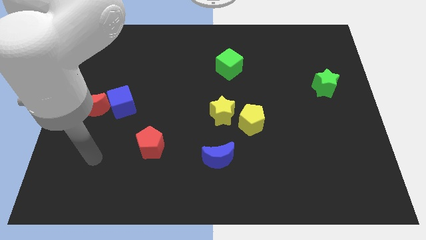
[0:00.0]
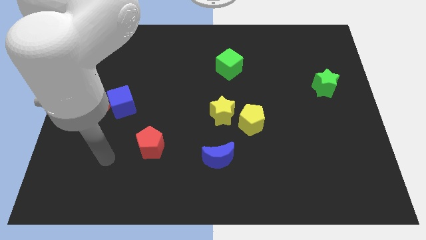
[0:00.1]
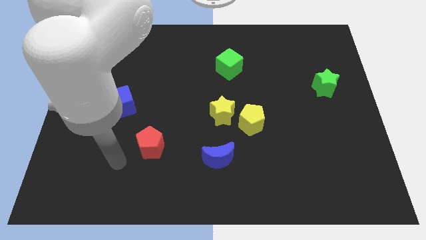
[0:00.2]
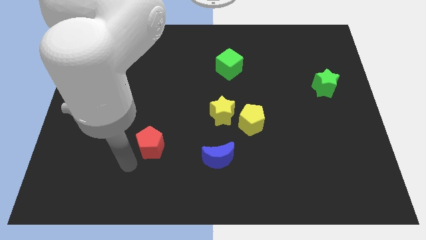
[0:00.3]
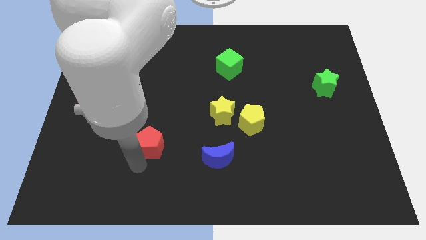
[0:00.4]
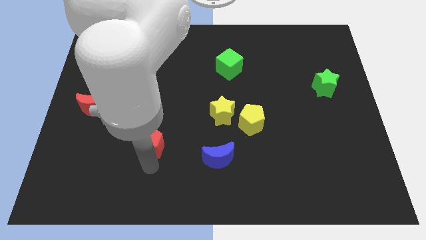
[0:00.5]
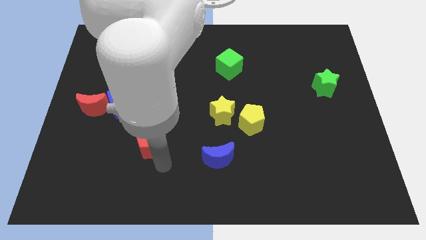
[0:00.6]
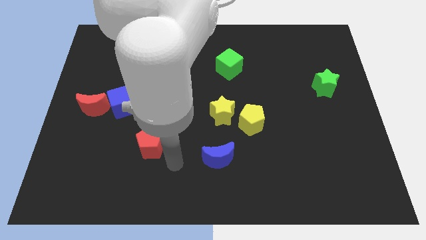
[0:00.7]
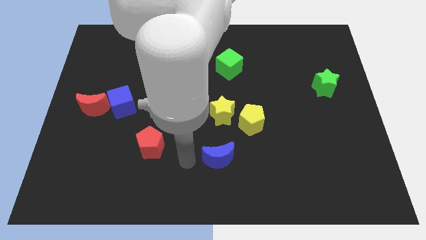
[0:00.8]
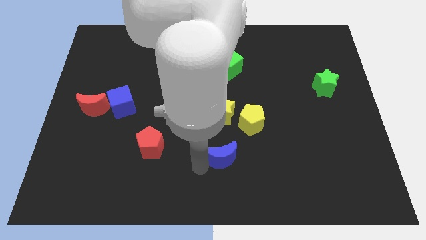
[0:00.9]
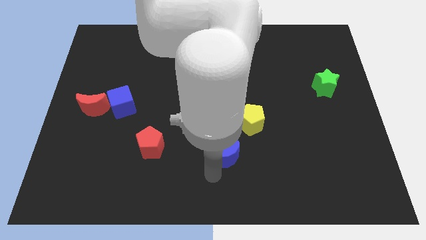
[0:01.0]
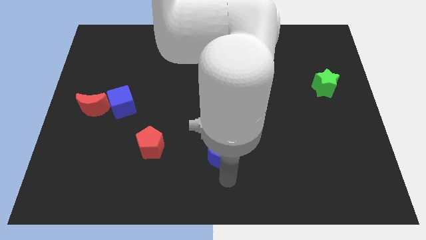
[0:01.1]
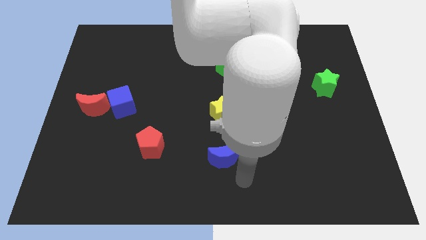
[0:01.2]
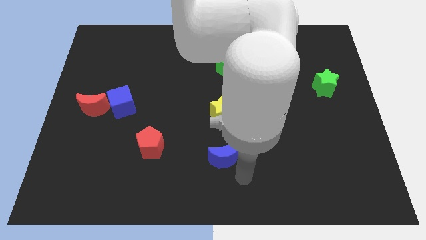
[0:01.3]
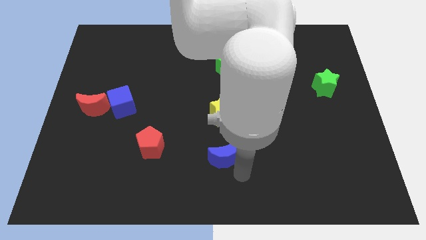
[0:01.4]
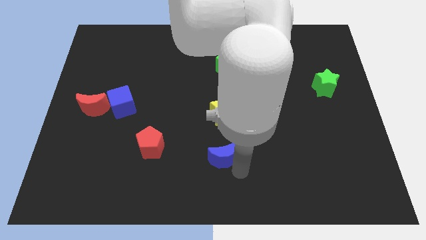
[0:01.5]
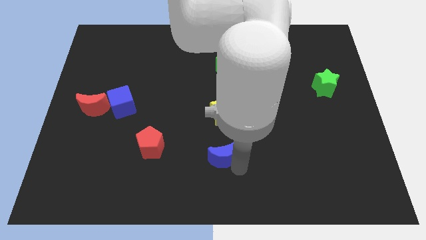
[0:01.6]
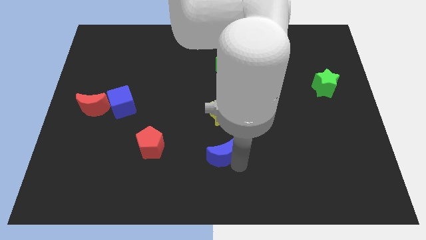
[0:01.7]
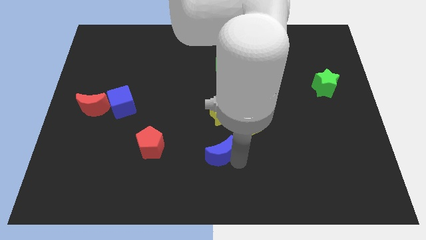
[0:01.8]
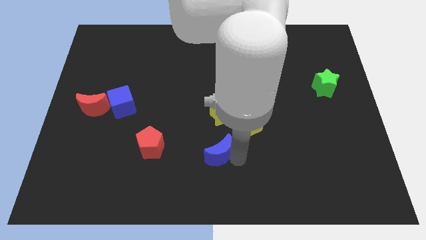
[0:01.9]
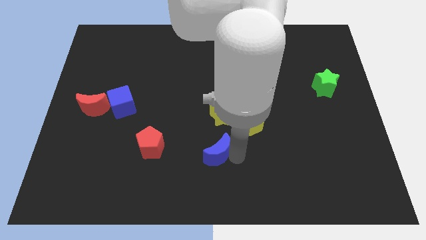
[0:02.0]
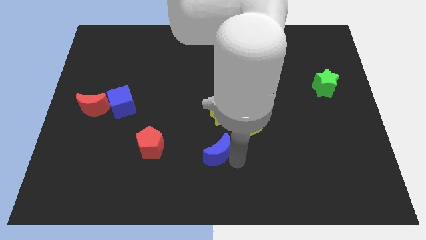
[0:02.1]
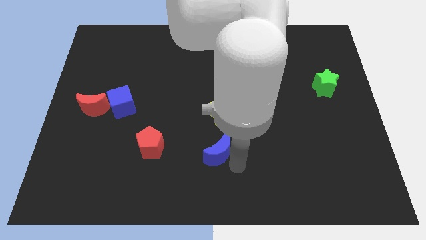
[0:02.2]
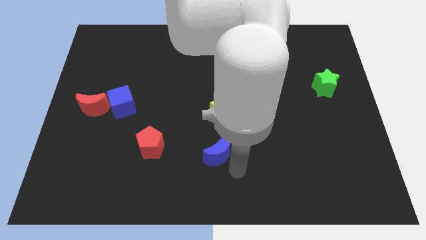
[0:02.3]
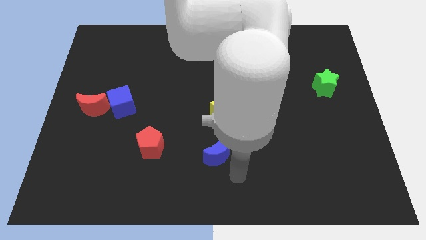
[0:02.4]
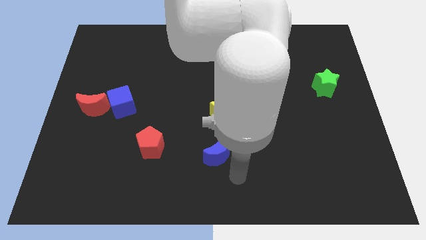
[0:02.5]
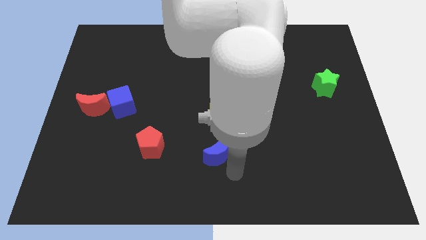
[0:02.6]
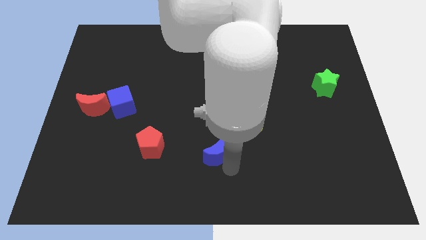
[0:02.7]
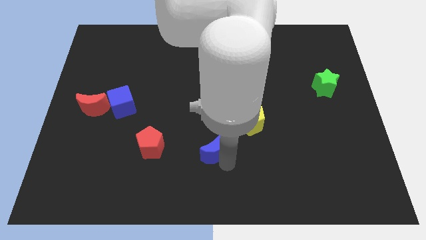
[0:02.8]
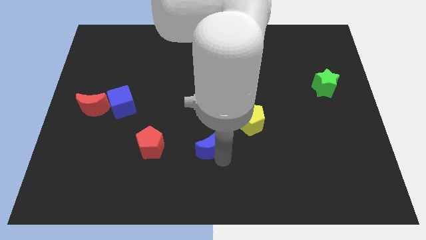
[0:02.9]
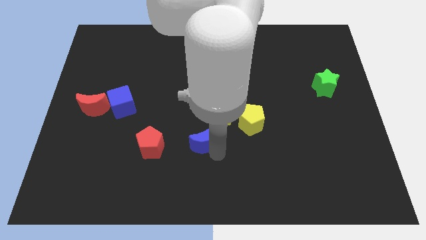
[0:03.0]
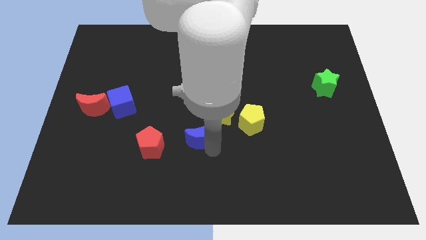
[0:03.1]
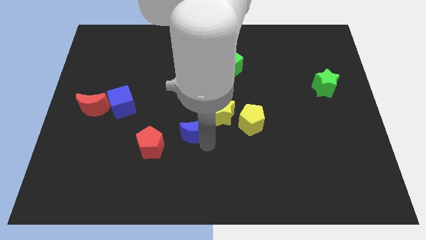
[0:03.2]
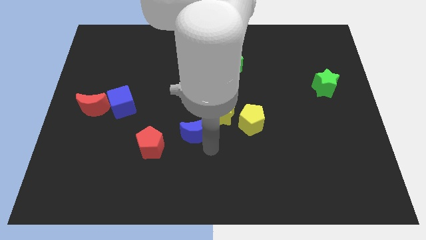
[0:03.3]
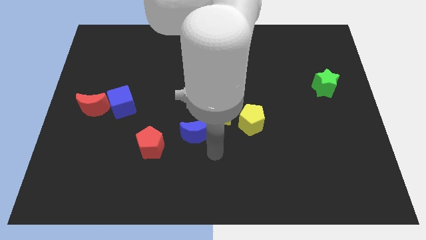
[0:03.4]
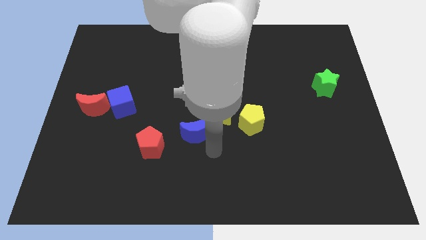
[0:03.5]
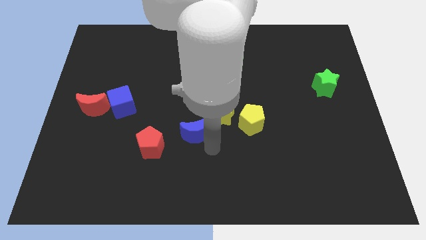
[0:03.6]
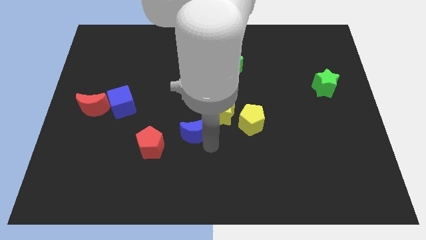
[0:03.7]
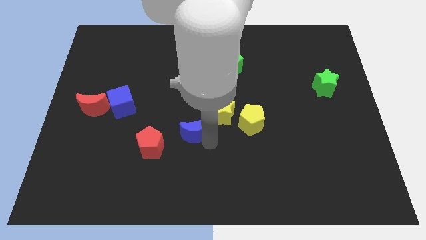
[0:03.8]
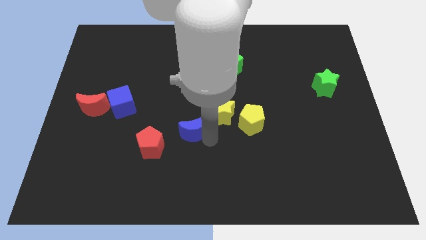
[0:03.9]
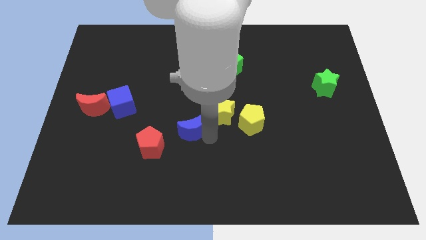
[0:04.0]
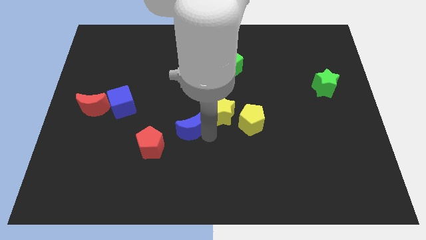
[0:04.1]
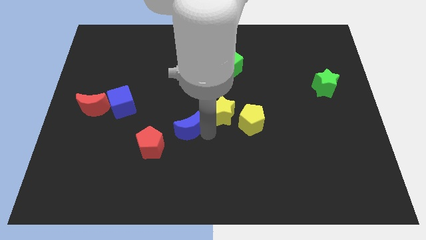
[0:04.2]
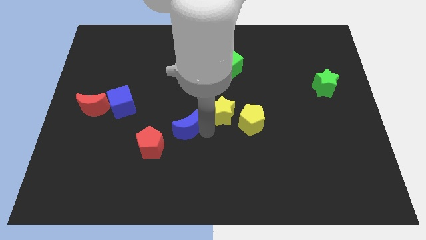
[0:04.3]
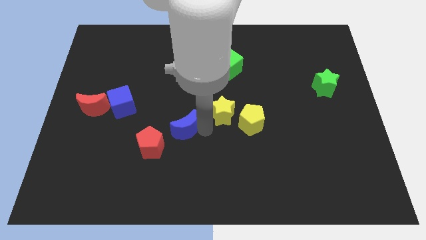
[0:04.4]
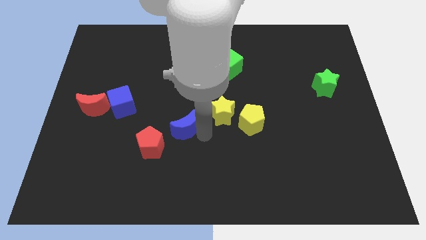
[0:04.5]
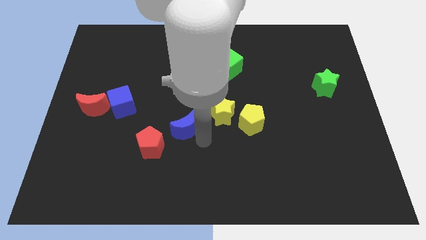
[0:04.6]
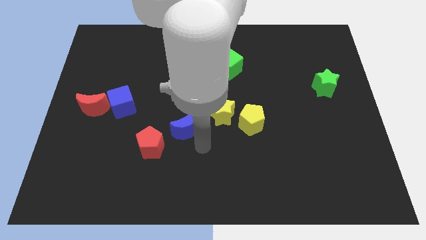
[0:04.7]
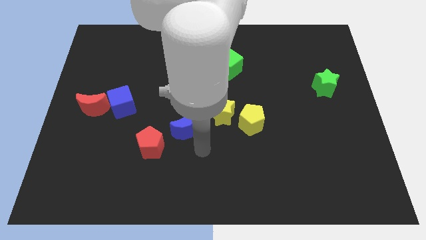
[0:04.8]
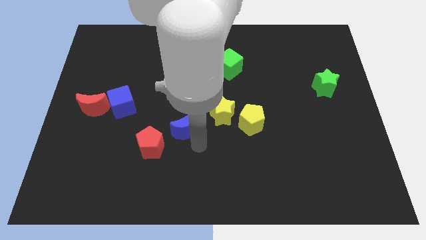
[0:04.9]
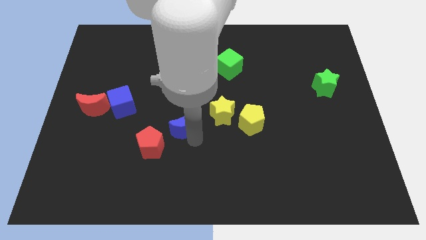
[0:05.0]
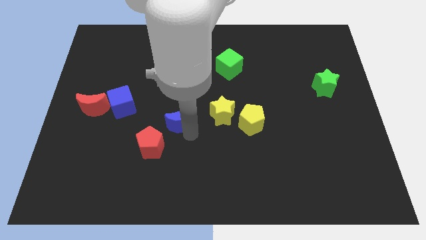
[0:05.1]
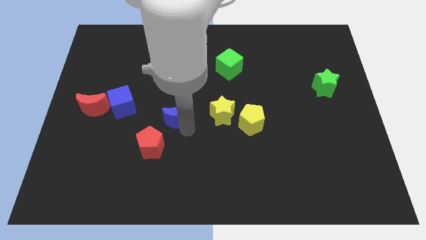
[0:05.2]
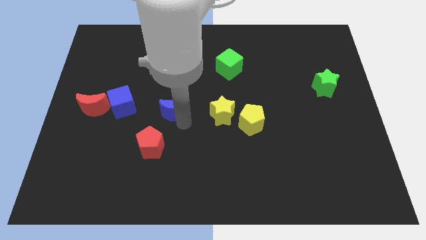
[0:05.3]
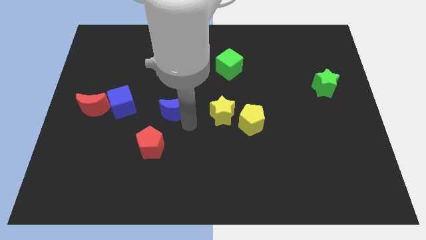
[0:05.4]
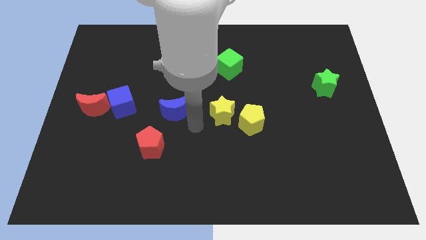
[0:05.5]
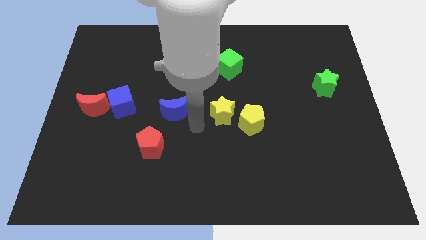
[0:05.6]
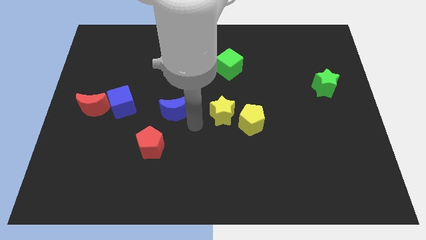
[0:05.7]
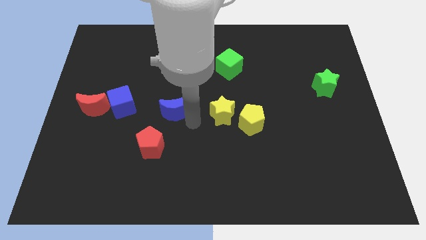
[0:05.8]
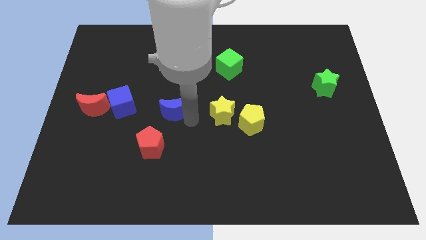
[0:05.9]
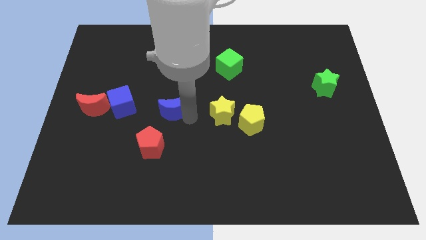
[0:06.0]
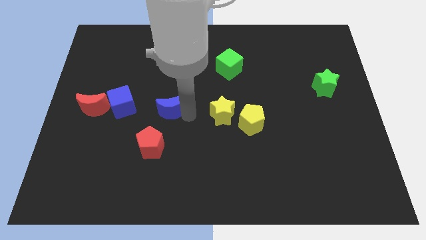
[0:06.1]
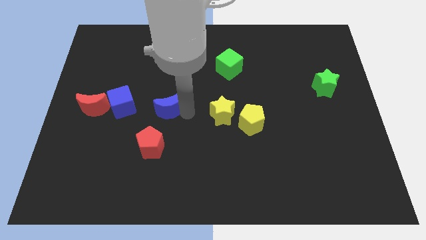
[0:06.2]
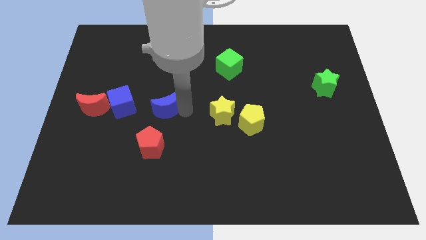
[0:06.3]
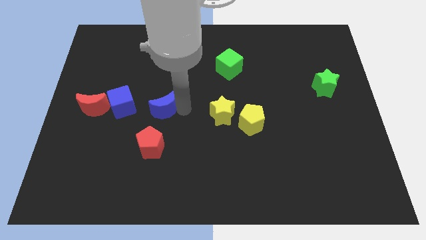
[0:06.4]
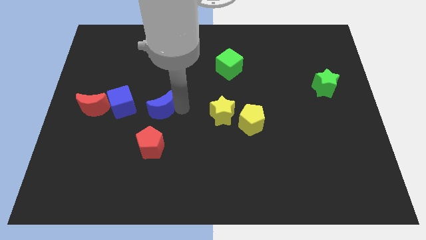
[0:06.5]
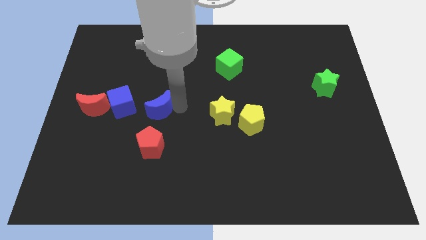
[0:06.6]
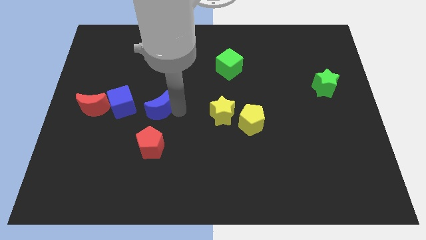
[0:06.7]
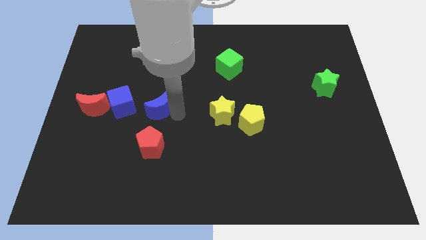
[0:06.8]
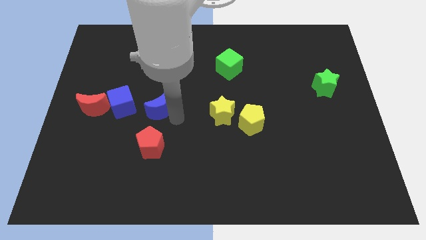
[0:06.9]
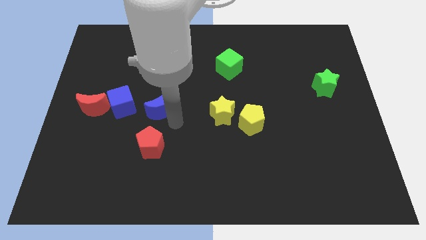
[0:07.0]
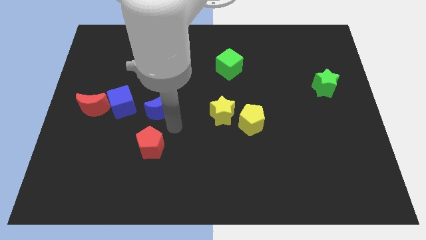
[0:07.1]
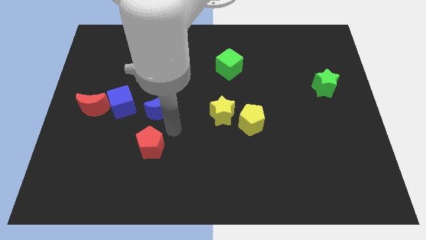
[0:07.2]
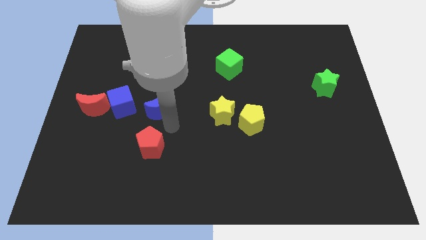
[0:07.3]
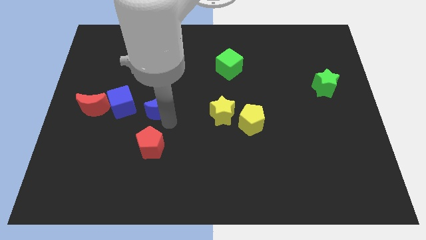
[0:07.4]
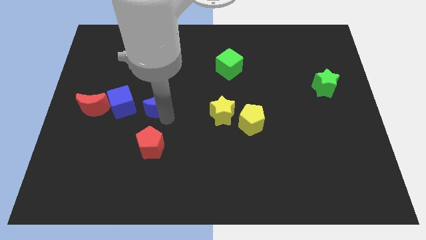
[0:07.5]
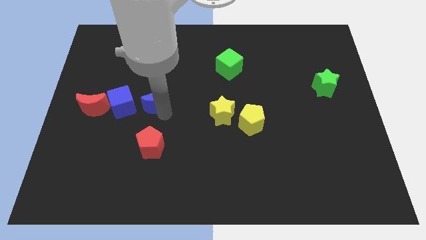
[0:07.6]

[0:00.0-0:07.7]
slide the blue moon upwards and left

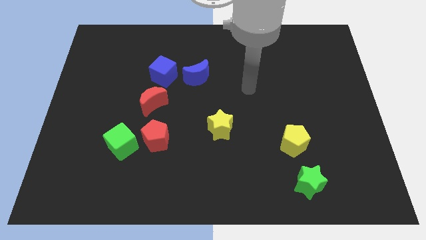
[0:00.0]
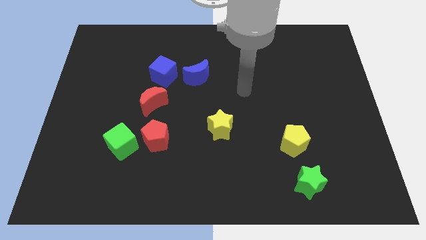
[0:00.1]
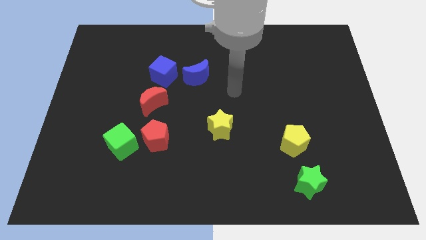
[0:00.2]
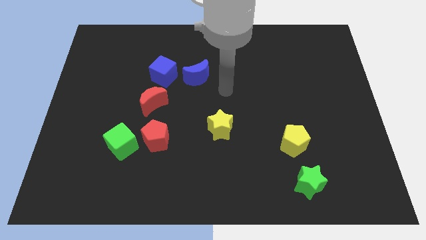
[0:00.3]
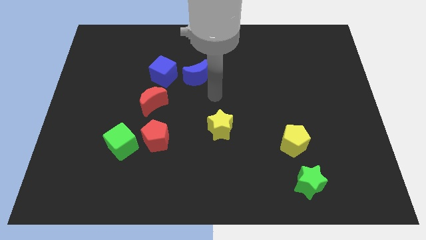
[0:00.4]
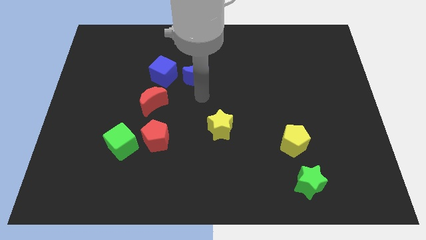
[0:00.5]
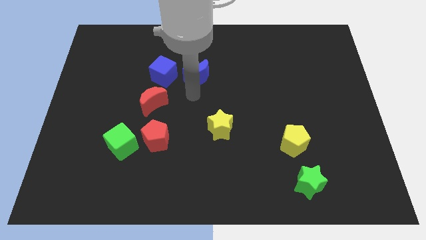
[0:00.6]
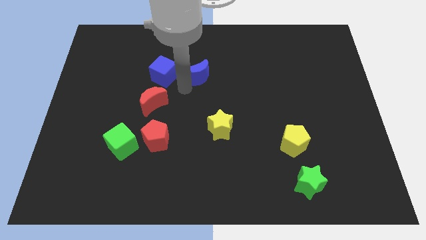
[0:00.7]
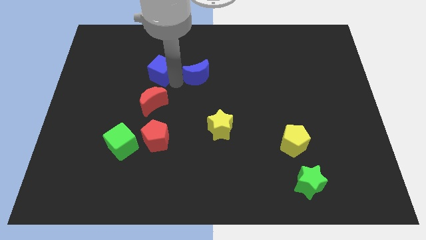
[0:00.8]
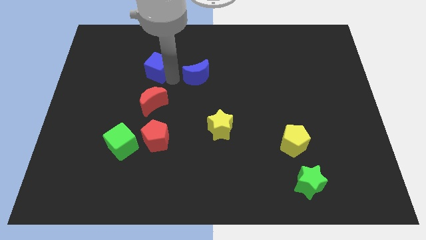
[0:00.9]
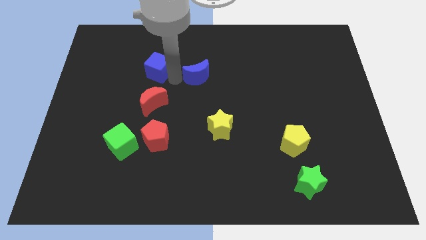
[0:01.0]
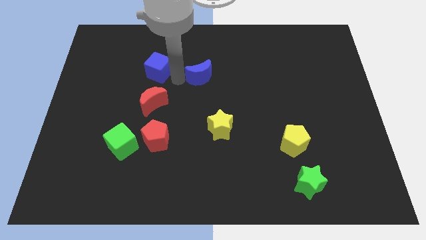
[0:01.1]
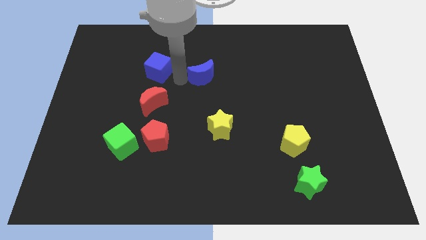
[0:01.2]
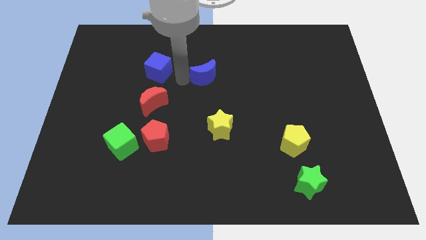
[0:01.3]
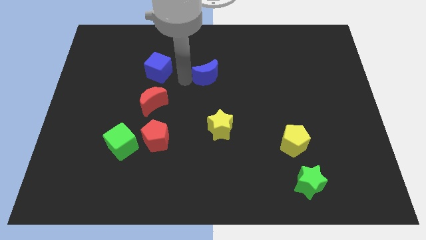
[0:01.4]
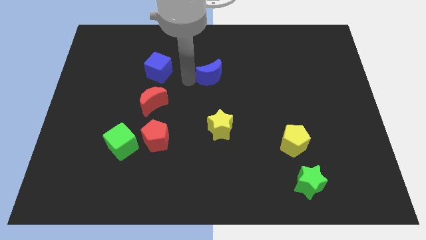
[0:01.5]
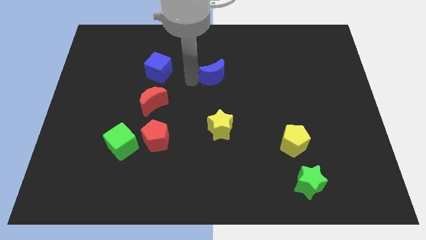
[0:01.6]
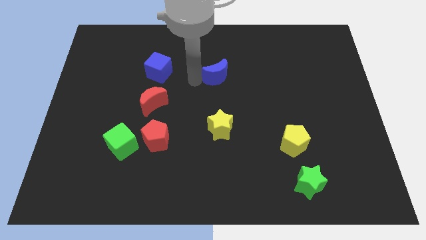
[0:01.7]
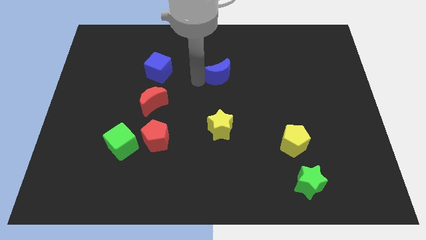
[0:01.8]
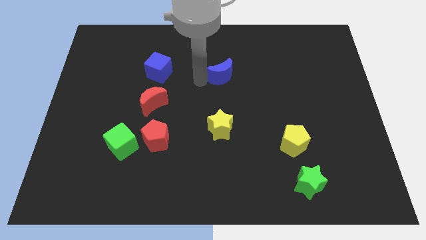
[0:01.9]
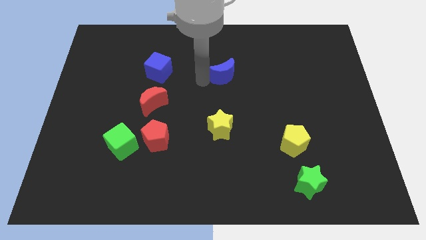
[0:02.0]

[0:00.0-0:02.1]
move the blue moon to the right a bit
